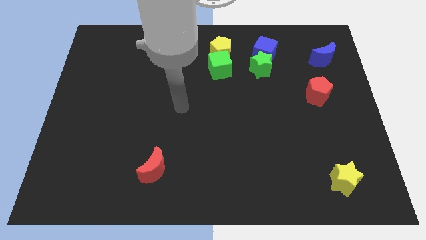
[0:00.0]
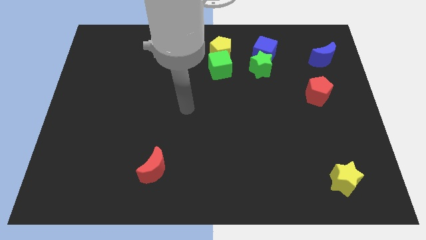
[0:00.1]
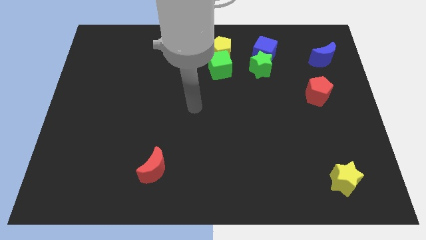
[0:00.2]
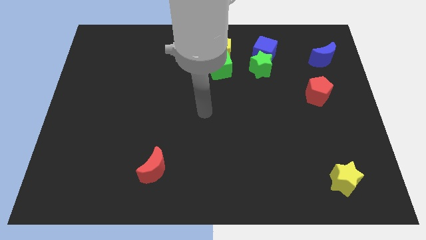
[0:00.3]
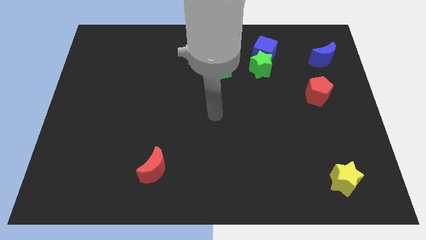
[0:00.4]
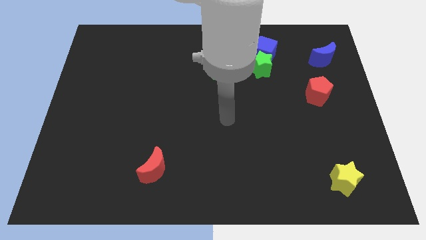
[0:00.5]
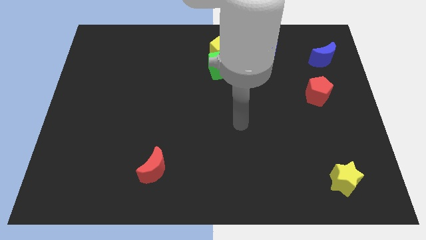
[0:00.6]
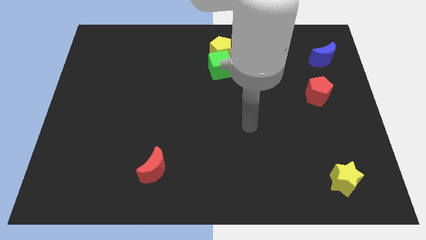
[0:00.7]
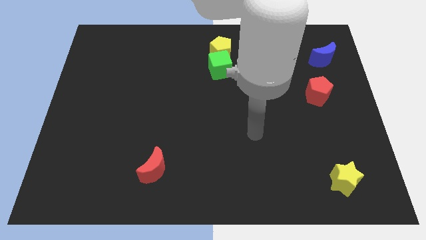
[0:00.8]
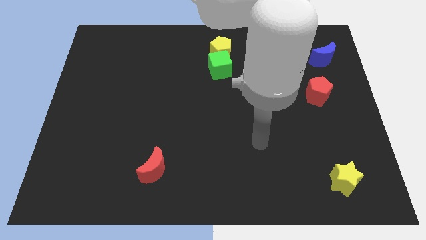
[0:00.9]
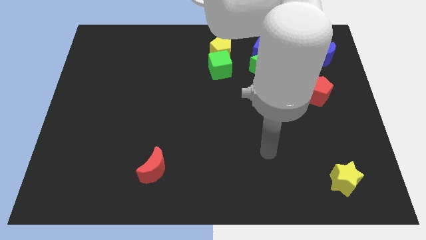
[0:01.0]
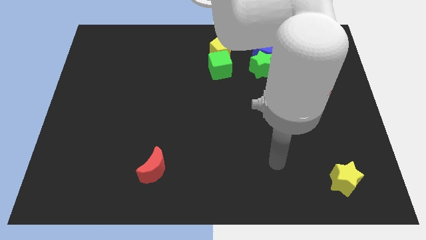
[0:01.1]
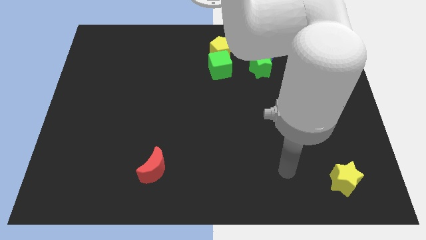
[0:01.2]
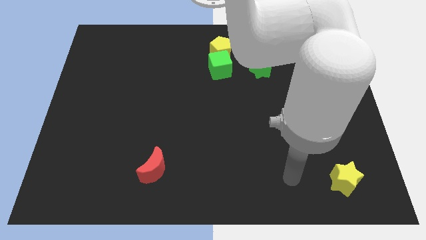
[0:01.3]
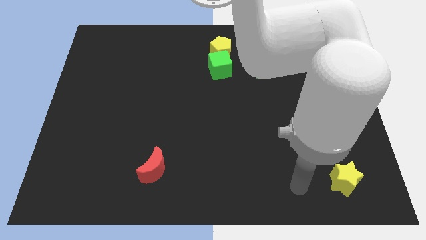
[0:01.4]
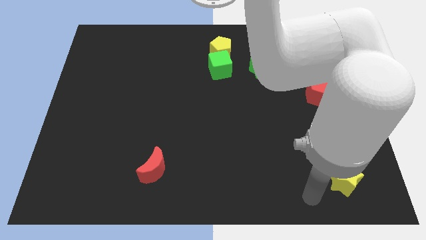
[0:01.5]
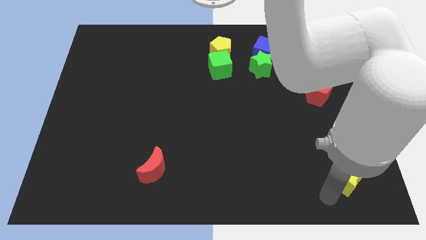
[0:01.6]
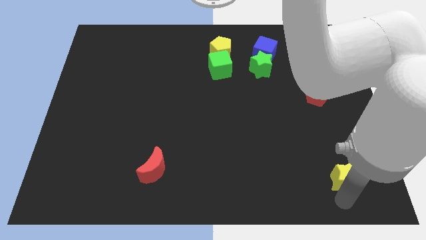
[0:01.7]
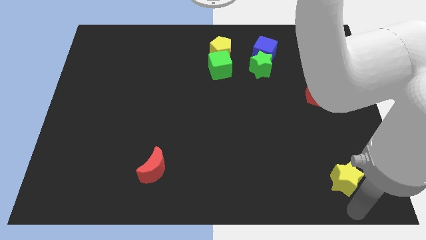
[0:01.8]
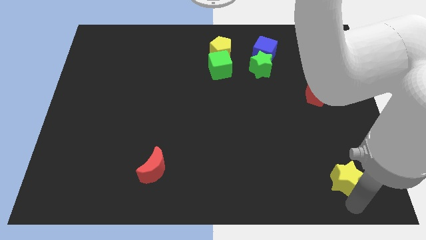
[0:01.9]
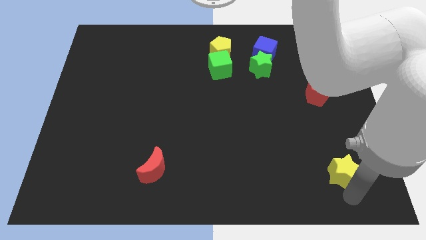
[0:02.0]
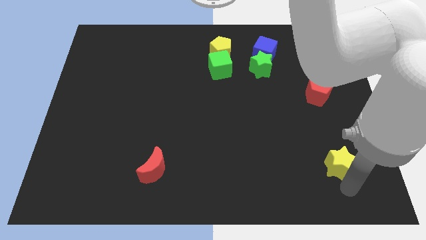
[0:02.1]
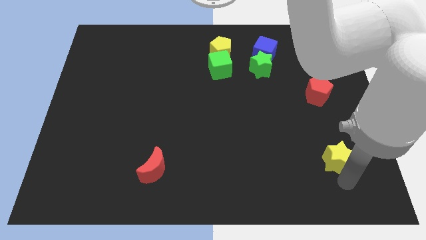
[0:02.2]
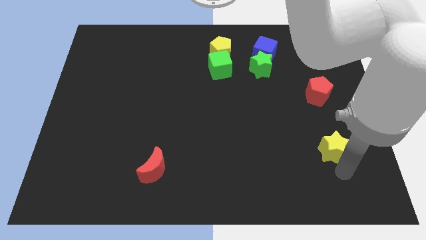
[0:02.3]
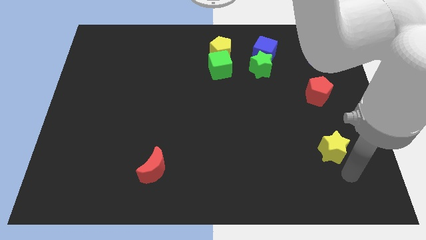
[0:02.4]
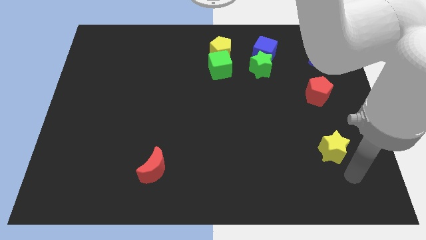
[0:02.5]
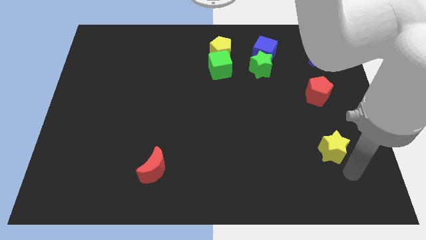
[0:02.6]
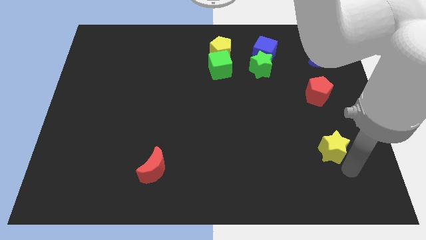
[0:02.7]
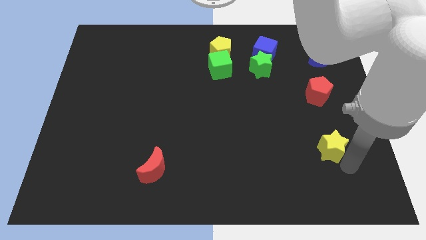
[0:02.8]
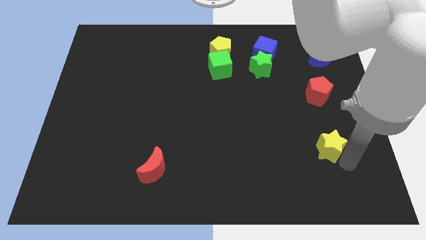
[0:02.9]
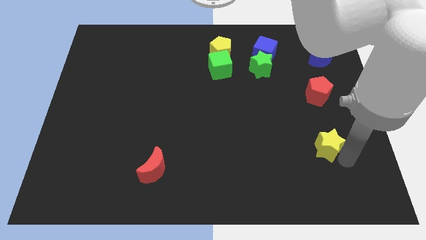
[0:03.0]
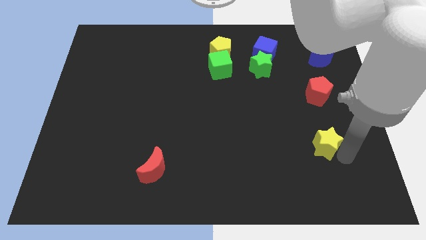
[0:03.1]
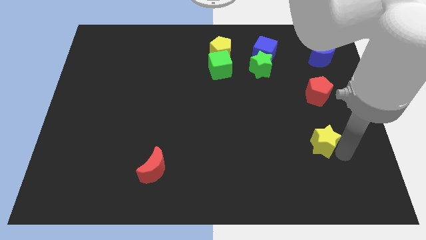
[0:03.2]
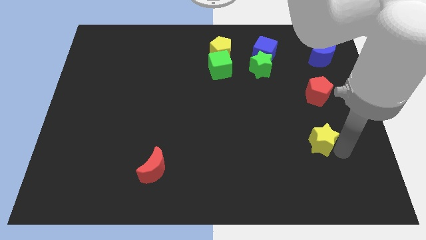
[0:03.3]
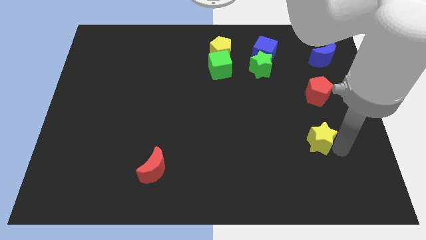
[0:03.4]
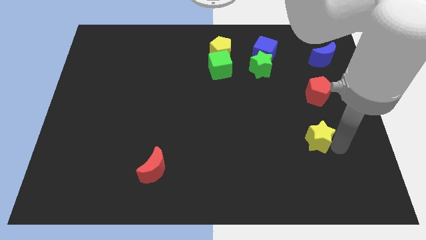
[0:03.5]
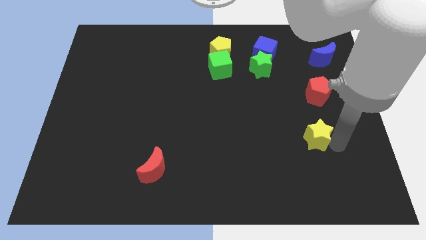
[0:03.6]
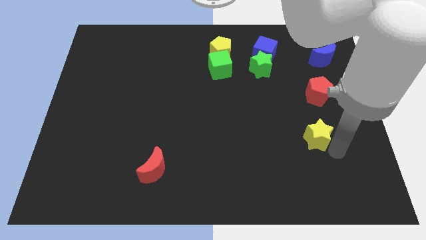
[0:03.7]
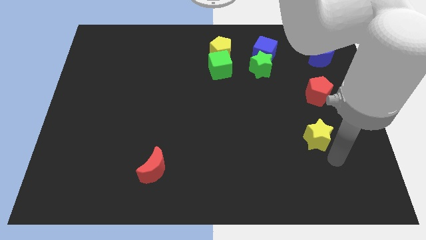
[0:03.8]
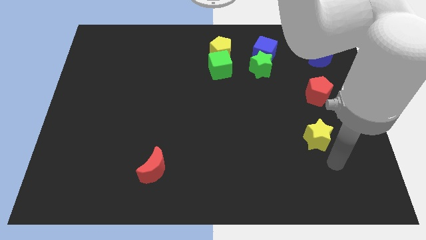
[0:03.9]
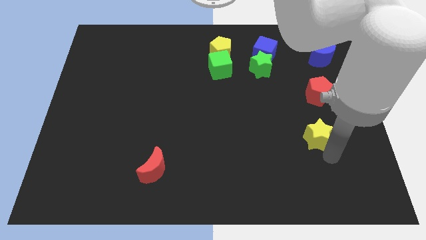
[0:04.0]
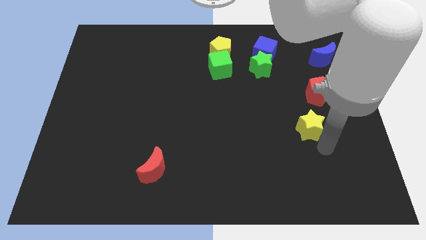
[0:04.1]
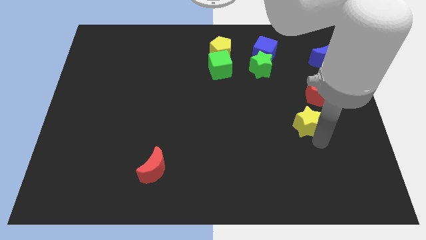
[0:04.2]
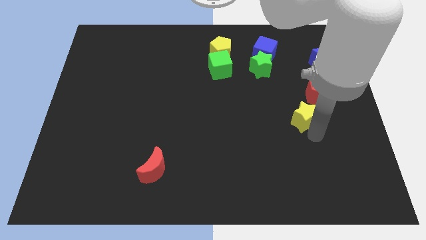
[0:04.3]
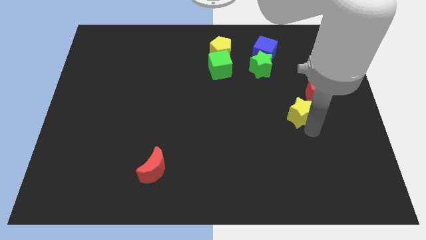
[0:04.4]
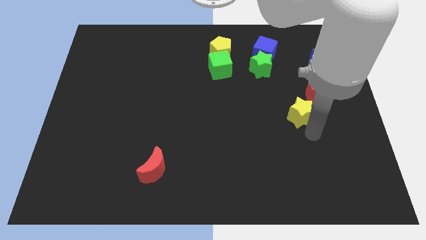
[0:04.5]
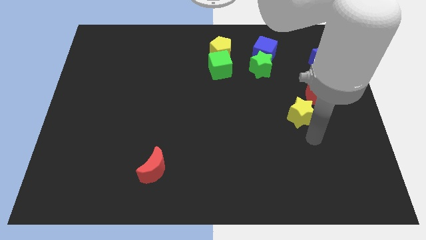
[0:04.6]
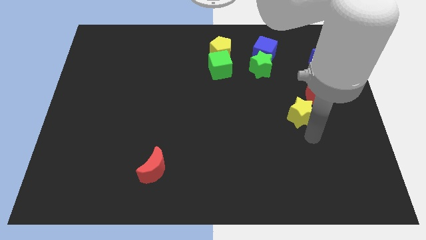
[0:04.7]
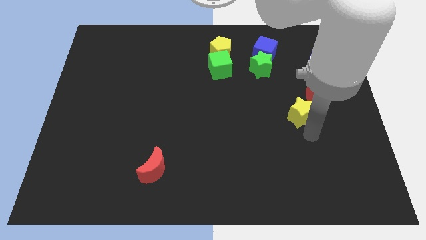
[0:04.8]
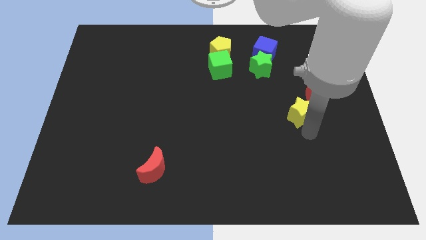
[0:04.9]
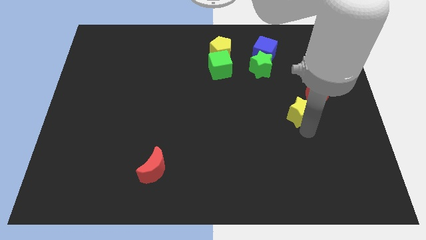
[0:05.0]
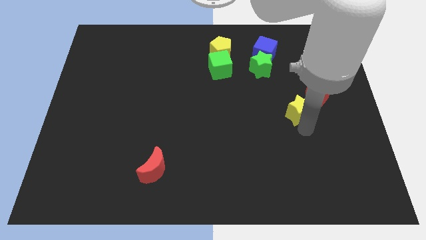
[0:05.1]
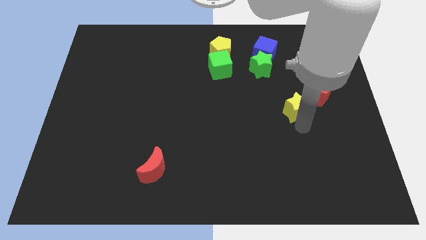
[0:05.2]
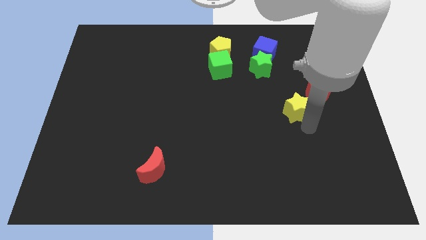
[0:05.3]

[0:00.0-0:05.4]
move the yellow star to the left side of the red pentagon
